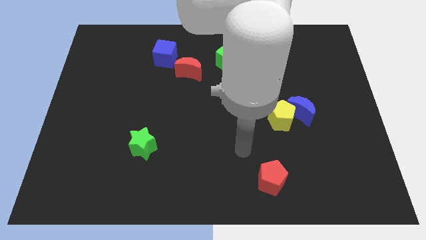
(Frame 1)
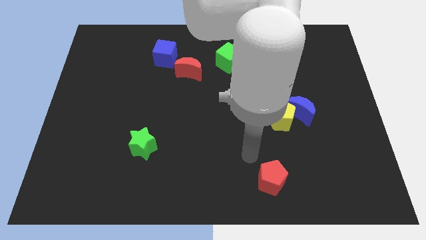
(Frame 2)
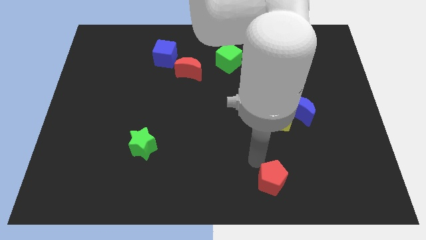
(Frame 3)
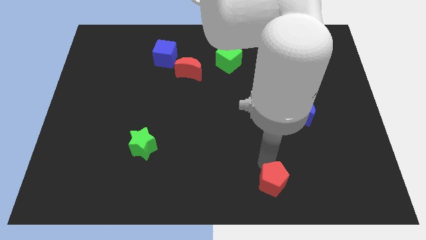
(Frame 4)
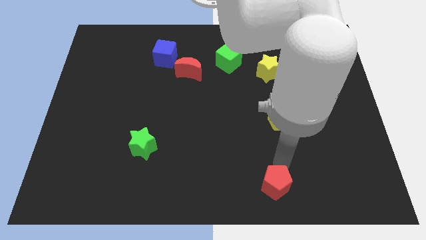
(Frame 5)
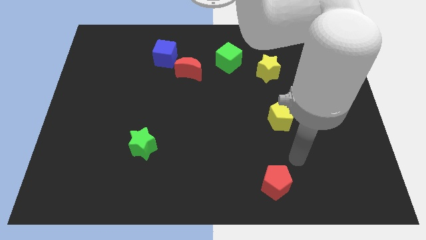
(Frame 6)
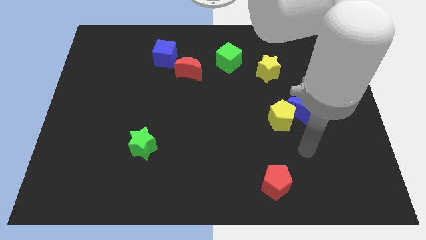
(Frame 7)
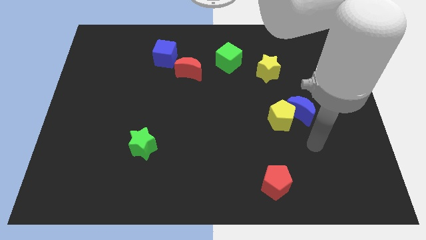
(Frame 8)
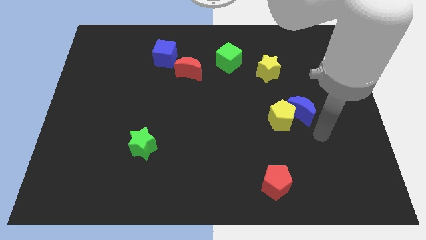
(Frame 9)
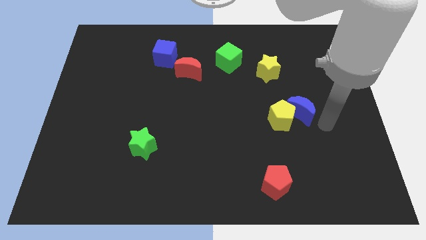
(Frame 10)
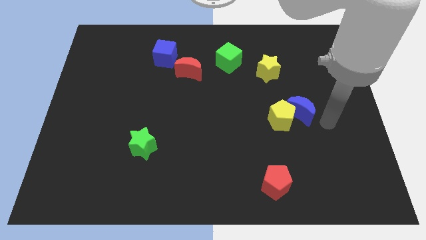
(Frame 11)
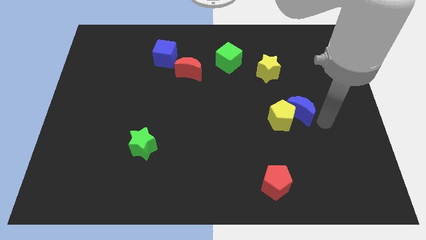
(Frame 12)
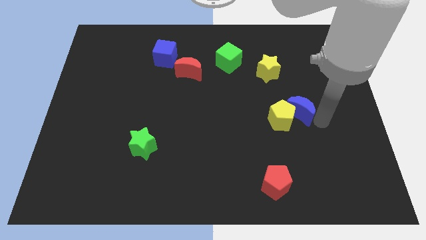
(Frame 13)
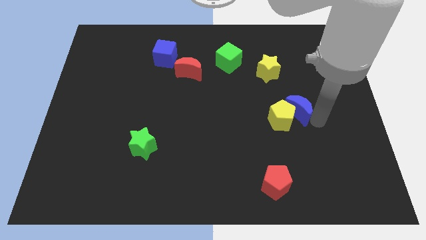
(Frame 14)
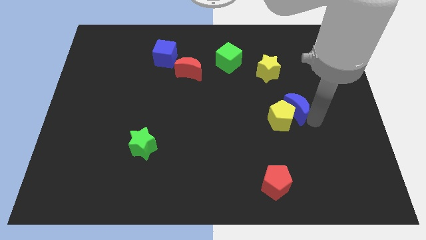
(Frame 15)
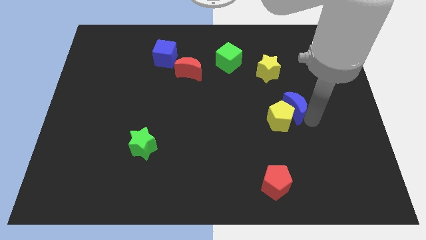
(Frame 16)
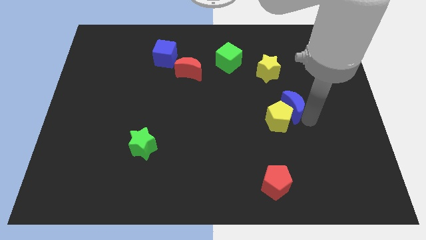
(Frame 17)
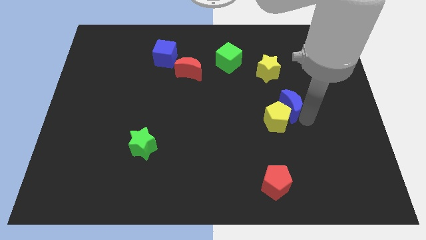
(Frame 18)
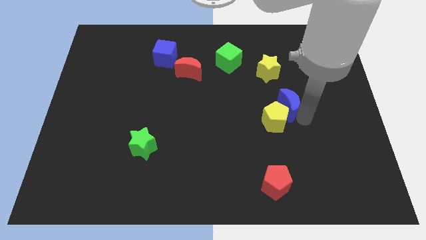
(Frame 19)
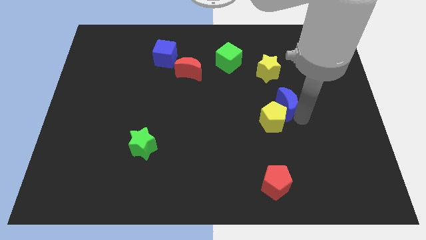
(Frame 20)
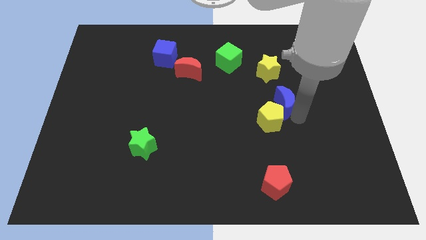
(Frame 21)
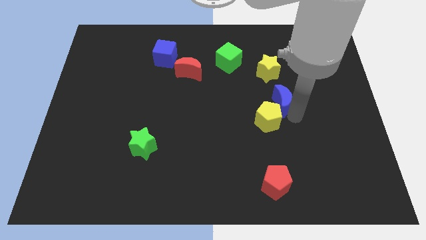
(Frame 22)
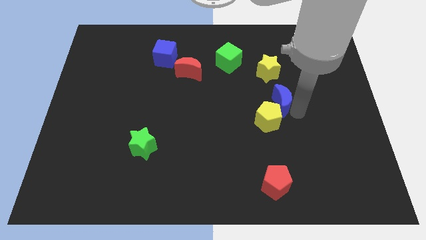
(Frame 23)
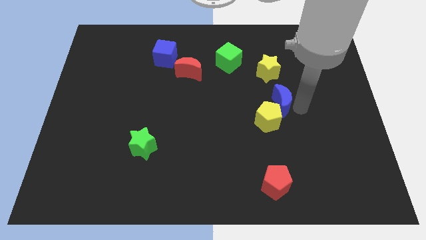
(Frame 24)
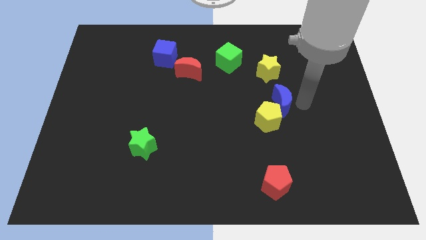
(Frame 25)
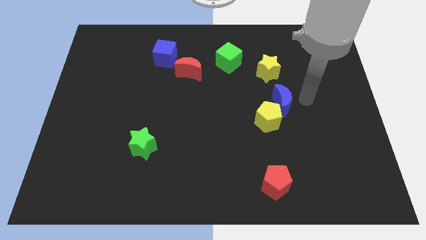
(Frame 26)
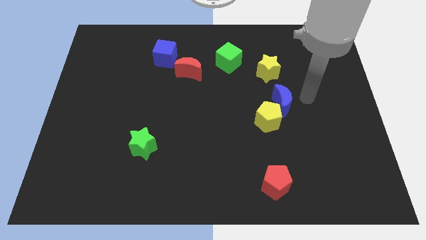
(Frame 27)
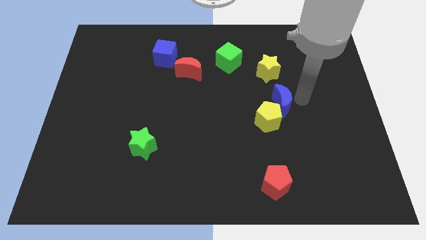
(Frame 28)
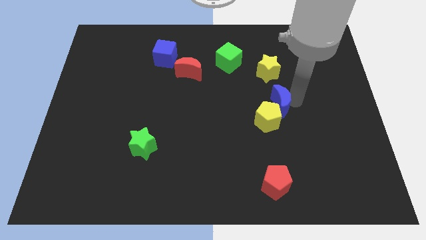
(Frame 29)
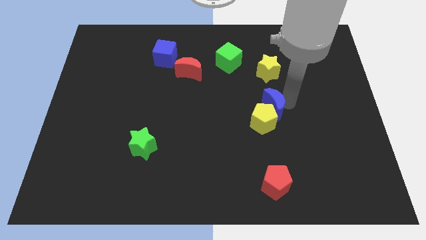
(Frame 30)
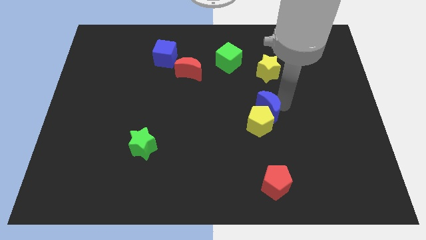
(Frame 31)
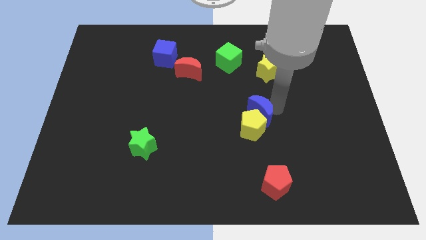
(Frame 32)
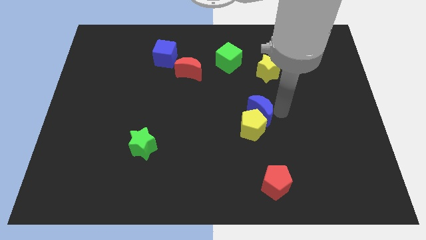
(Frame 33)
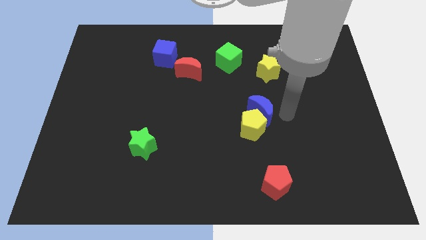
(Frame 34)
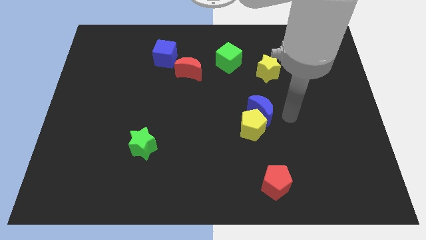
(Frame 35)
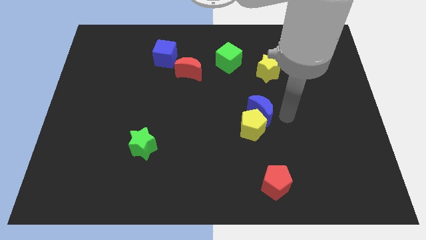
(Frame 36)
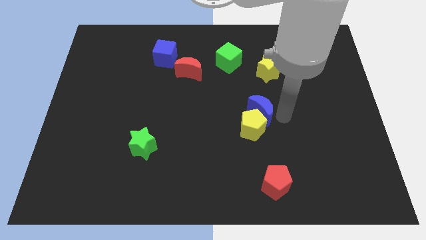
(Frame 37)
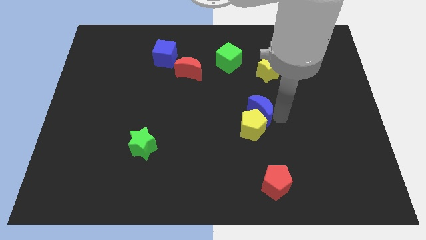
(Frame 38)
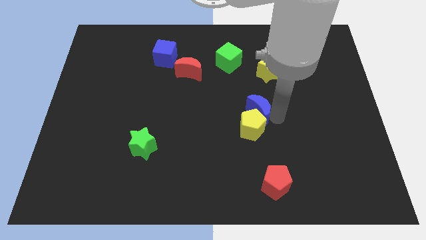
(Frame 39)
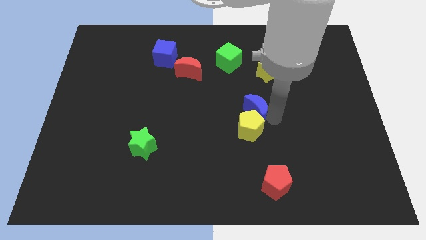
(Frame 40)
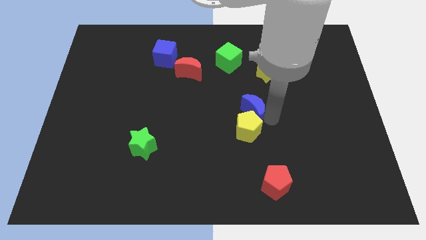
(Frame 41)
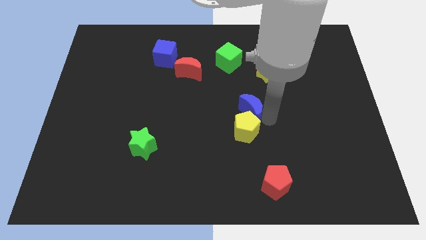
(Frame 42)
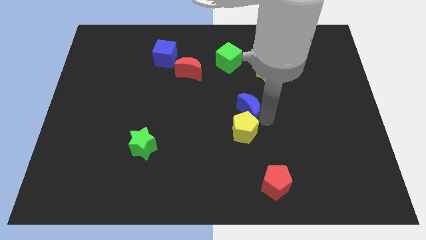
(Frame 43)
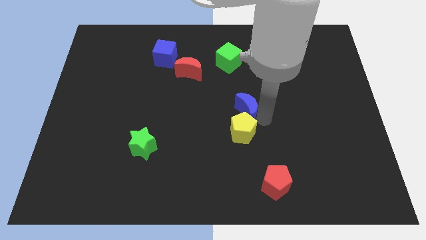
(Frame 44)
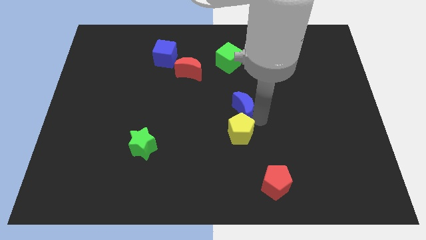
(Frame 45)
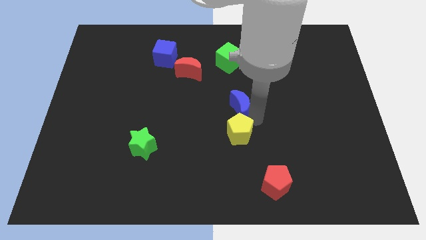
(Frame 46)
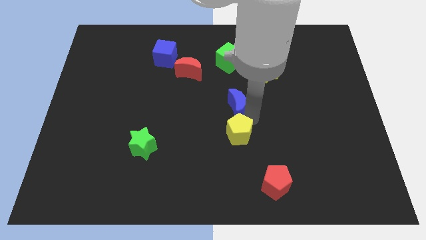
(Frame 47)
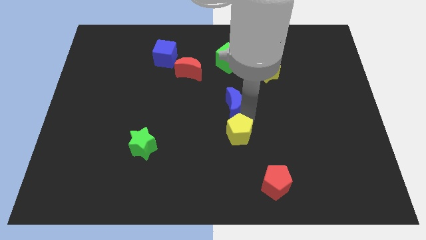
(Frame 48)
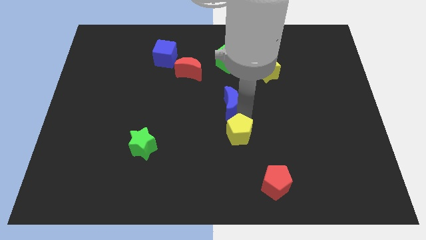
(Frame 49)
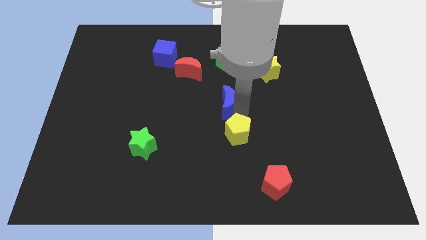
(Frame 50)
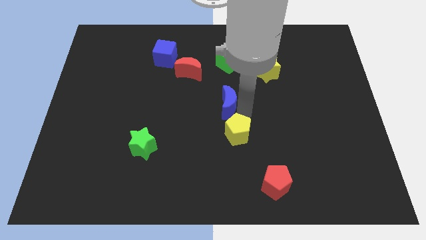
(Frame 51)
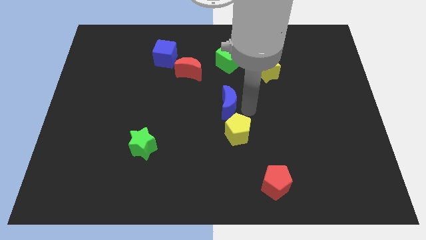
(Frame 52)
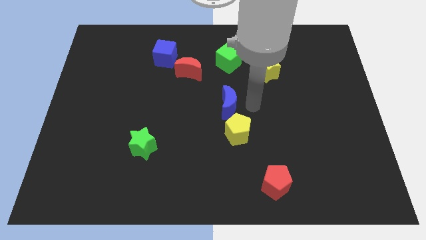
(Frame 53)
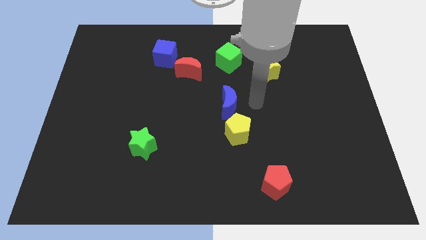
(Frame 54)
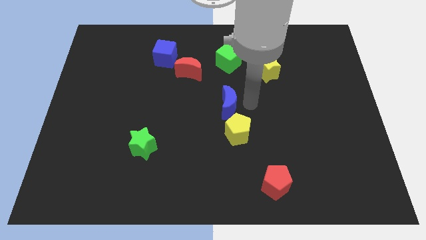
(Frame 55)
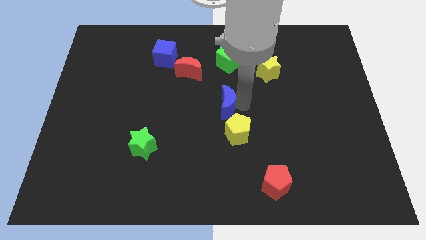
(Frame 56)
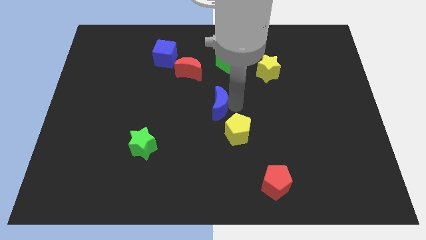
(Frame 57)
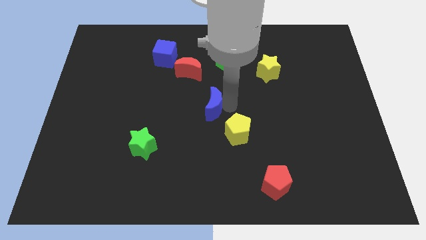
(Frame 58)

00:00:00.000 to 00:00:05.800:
move the blue moon left

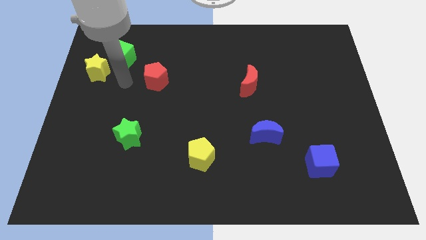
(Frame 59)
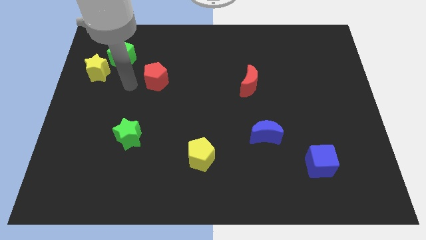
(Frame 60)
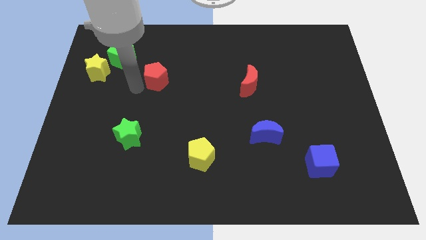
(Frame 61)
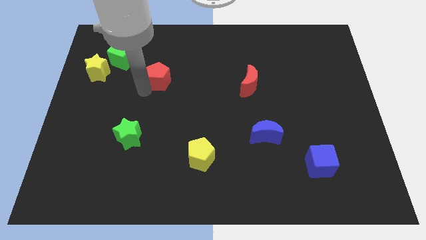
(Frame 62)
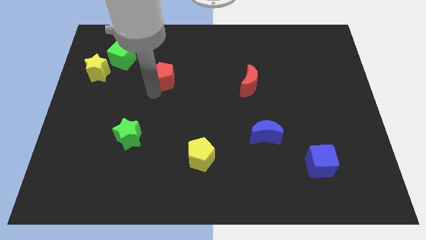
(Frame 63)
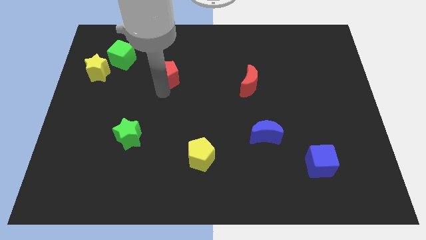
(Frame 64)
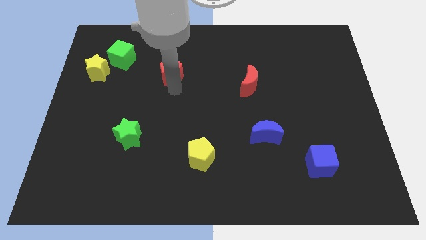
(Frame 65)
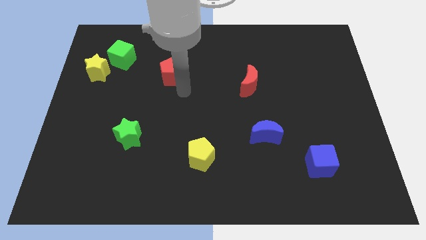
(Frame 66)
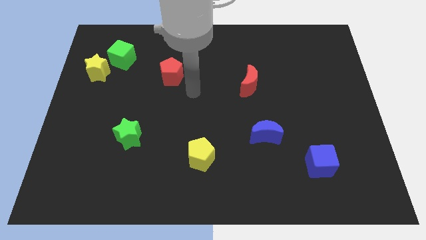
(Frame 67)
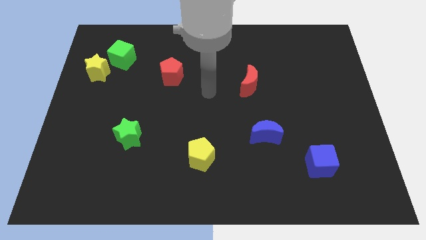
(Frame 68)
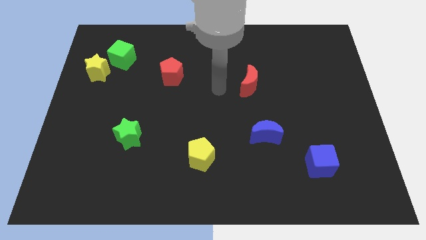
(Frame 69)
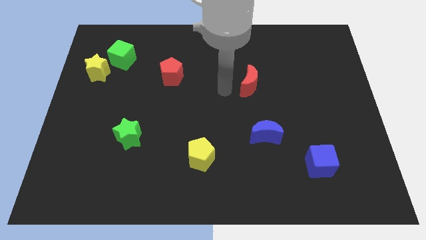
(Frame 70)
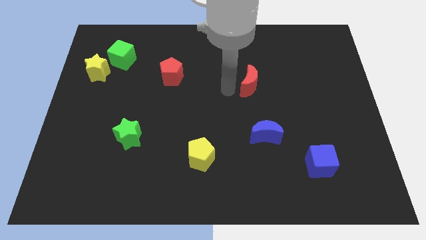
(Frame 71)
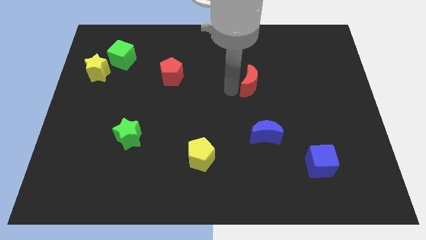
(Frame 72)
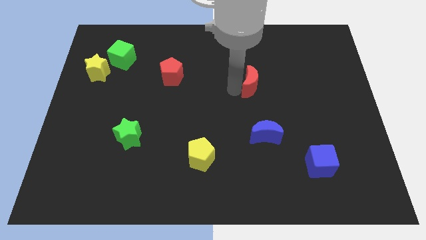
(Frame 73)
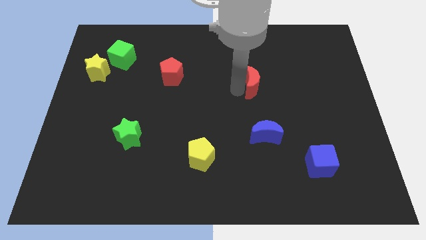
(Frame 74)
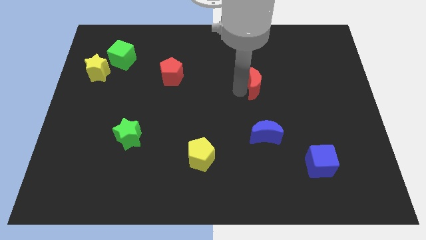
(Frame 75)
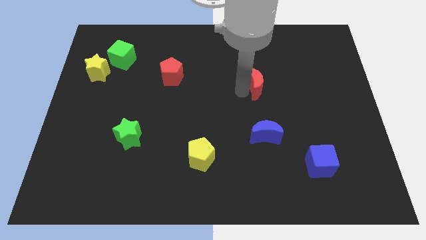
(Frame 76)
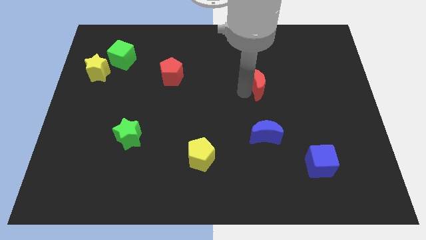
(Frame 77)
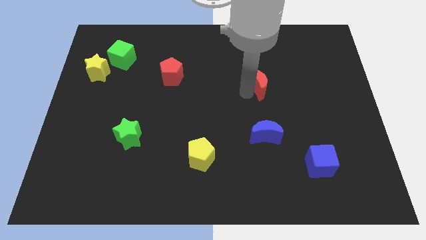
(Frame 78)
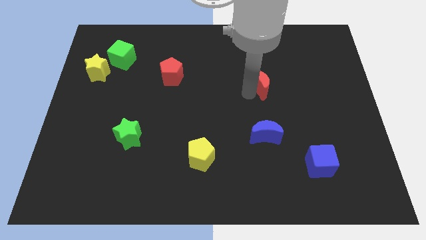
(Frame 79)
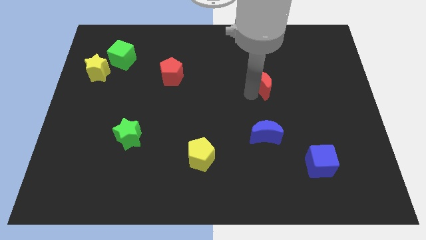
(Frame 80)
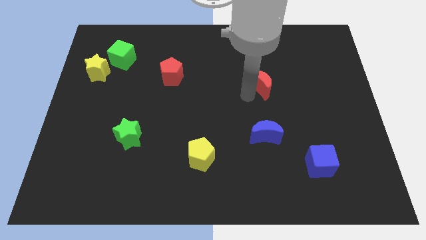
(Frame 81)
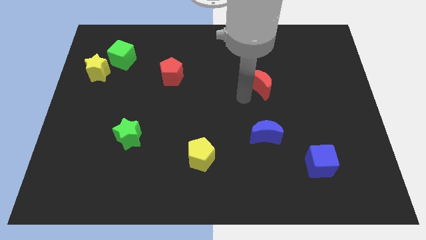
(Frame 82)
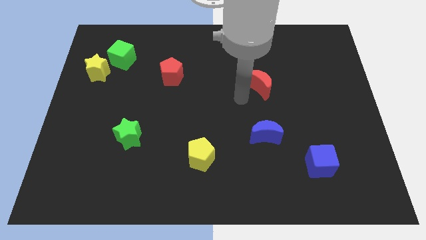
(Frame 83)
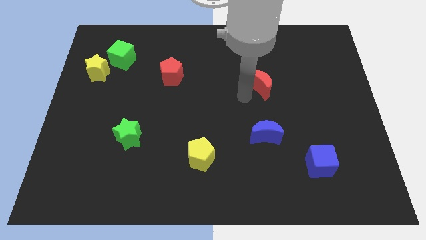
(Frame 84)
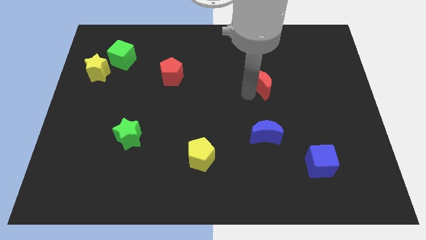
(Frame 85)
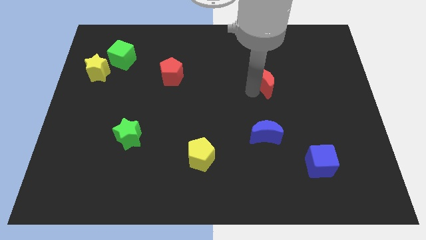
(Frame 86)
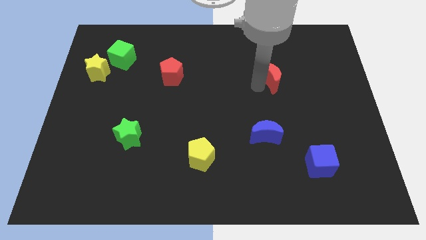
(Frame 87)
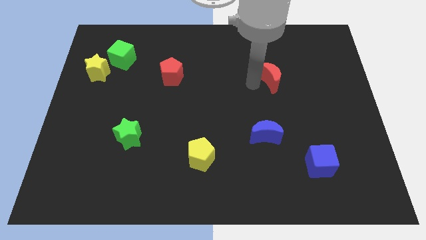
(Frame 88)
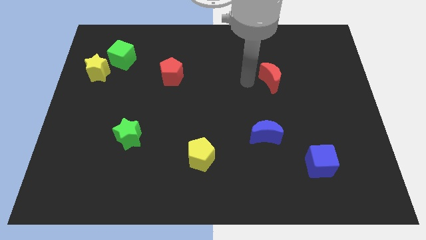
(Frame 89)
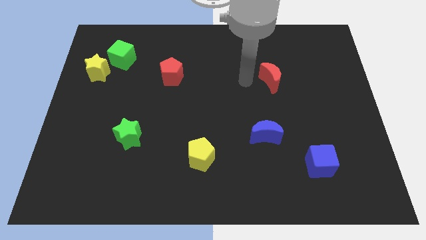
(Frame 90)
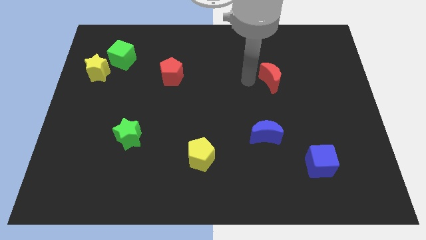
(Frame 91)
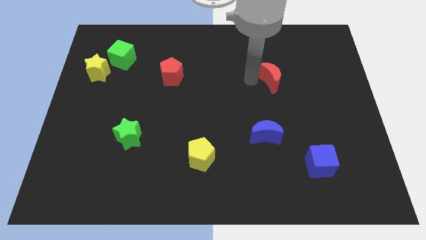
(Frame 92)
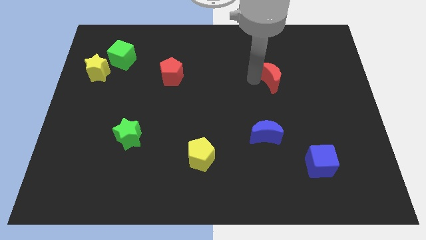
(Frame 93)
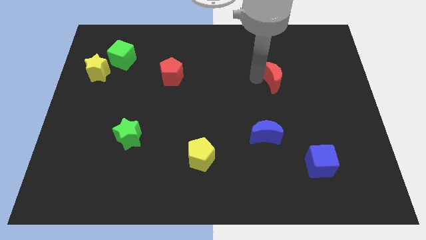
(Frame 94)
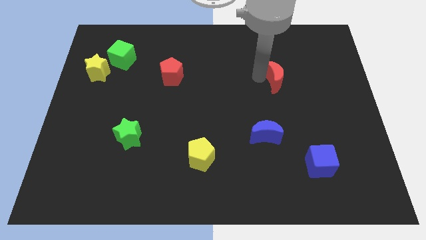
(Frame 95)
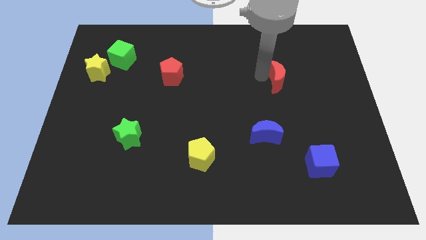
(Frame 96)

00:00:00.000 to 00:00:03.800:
push the red moon a little to the right
